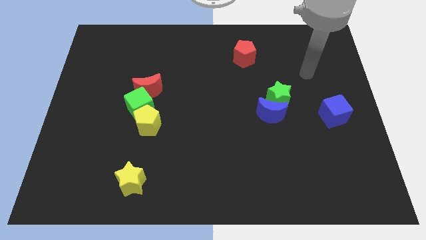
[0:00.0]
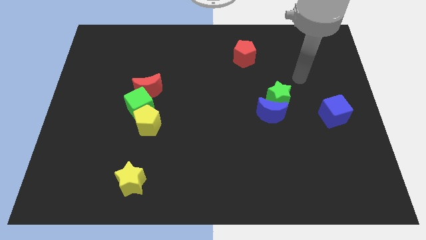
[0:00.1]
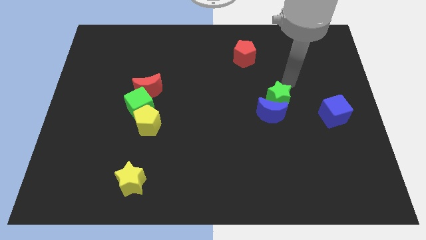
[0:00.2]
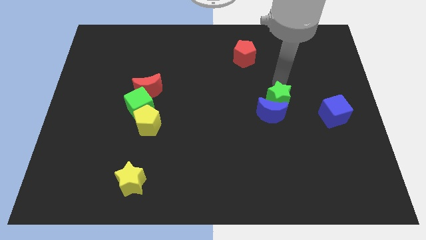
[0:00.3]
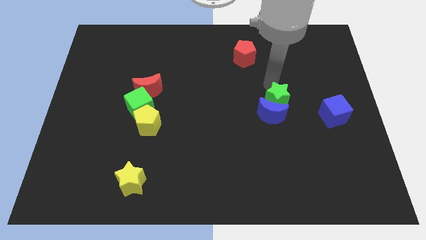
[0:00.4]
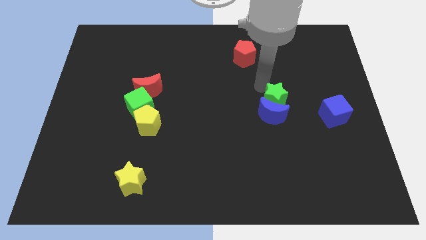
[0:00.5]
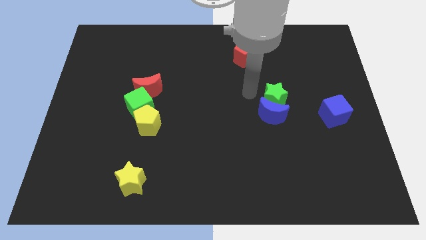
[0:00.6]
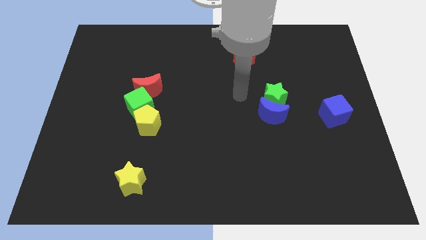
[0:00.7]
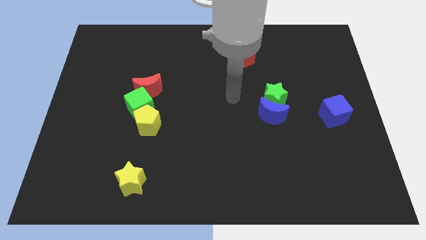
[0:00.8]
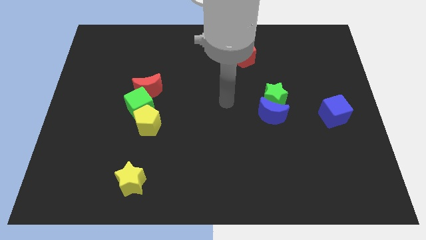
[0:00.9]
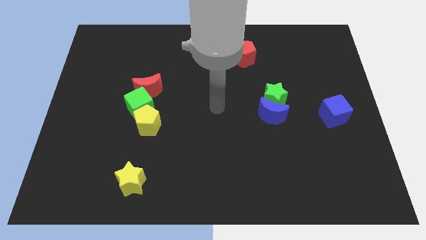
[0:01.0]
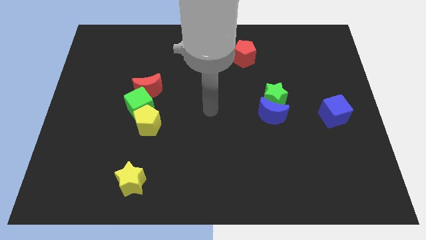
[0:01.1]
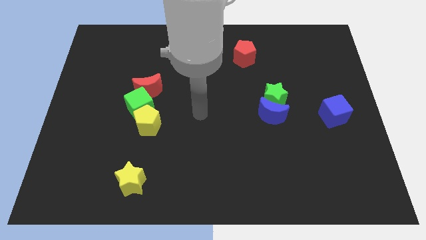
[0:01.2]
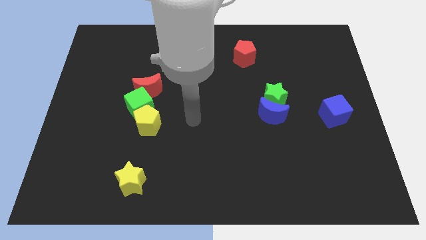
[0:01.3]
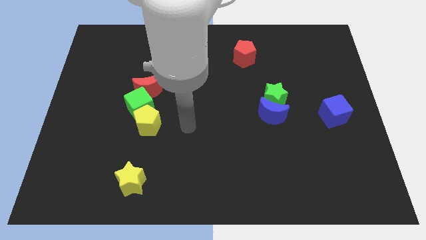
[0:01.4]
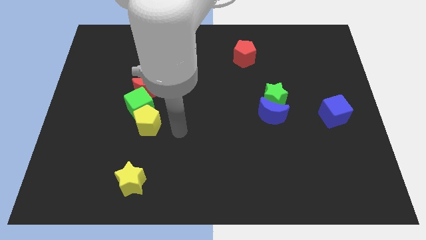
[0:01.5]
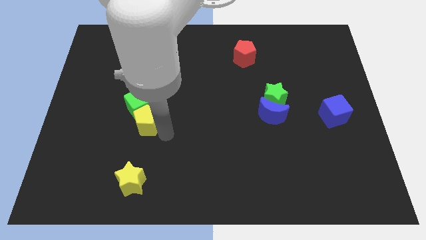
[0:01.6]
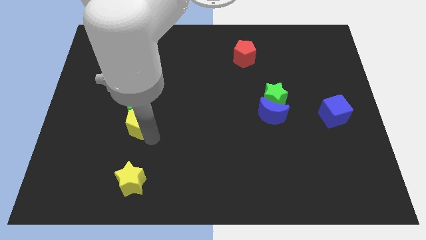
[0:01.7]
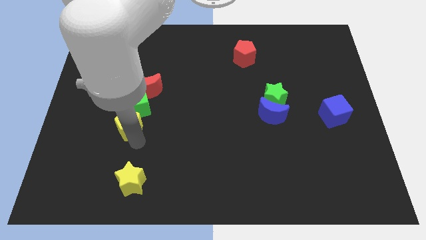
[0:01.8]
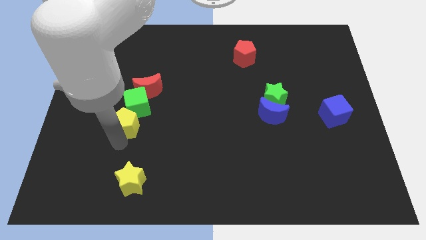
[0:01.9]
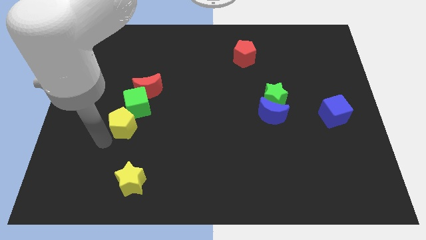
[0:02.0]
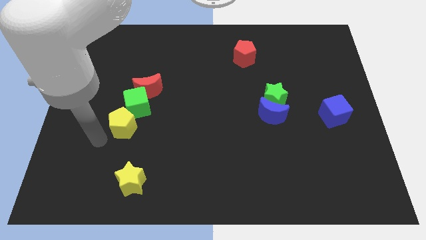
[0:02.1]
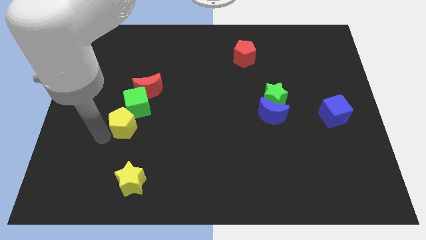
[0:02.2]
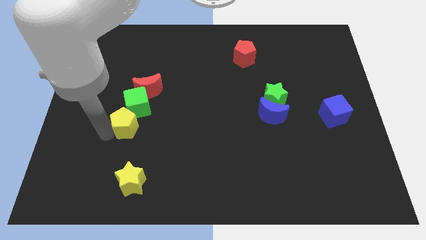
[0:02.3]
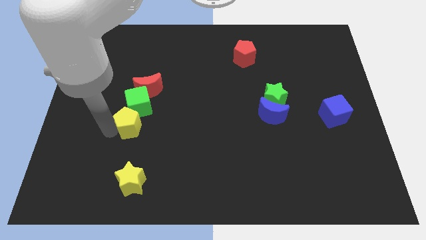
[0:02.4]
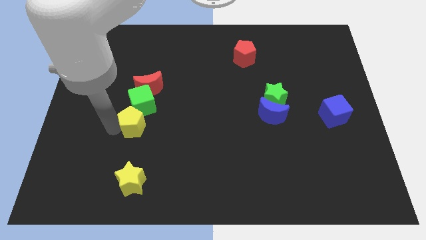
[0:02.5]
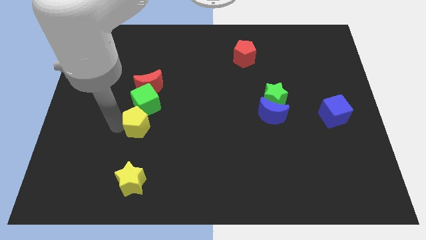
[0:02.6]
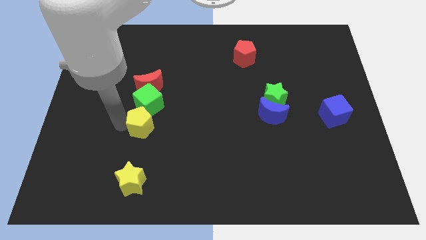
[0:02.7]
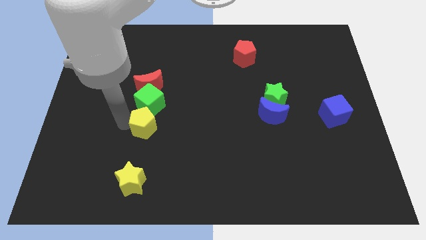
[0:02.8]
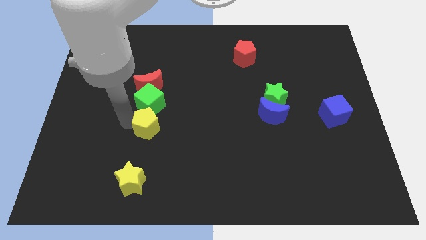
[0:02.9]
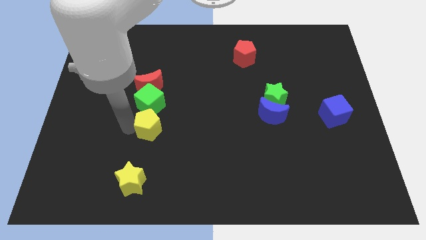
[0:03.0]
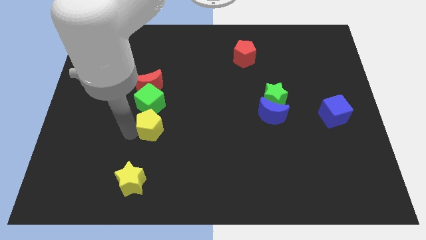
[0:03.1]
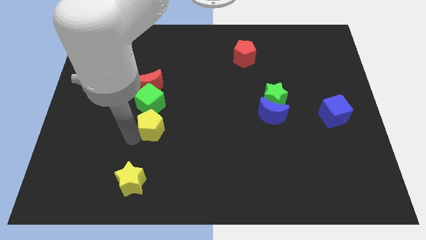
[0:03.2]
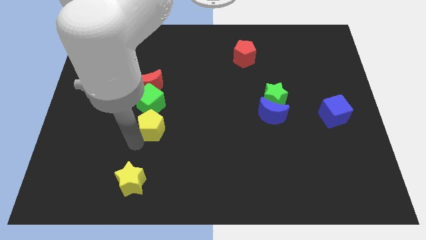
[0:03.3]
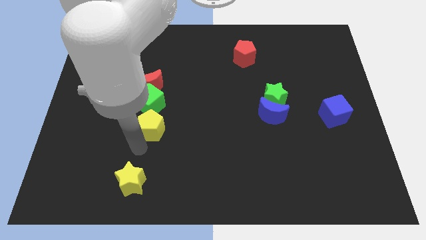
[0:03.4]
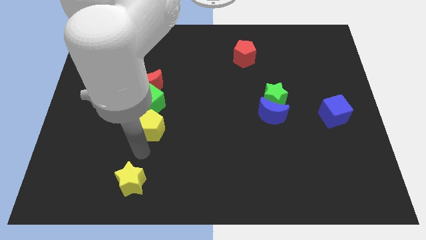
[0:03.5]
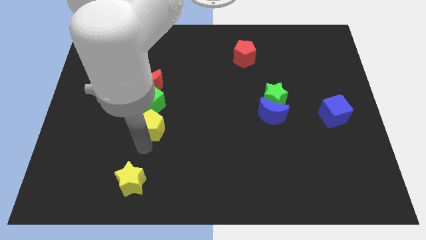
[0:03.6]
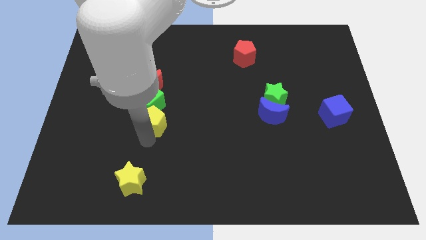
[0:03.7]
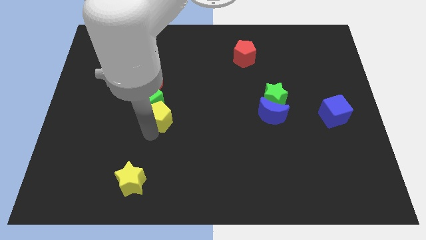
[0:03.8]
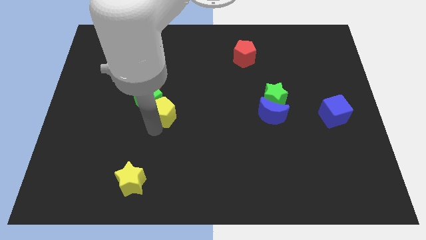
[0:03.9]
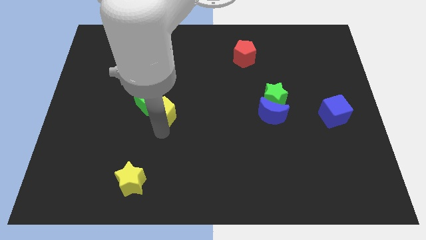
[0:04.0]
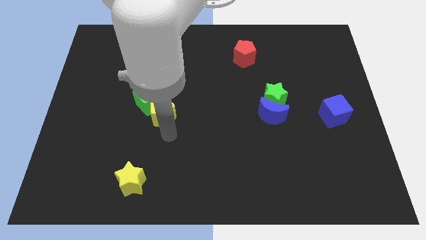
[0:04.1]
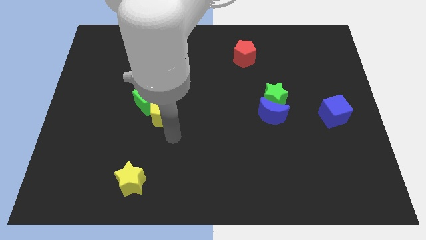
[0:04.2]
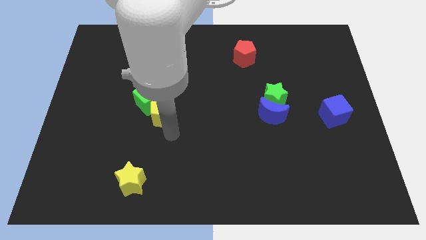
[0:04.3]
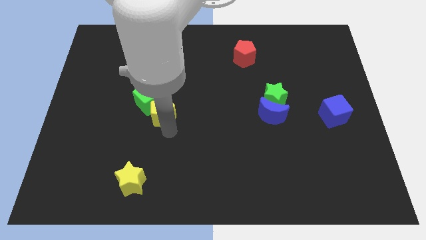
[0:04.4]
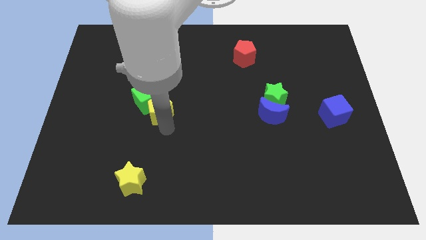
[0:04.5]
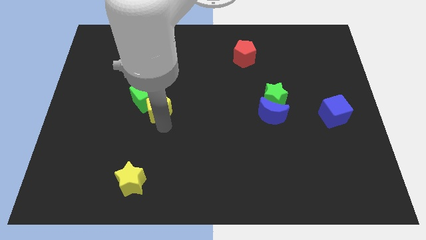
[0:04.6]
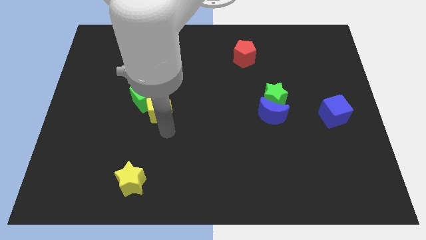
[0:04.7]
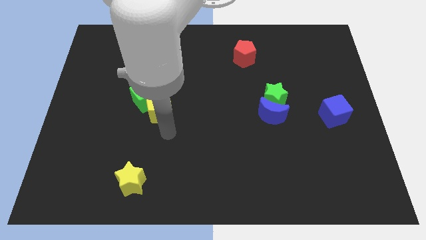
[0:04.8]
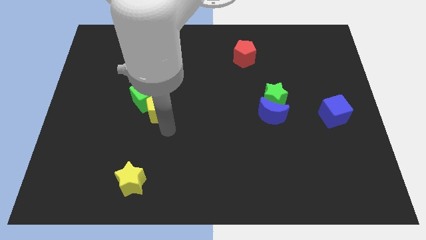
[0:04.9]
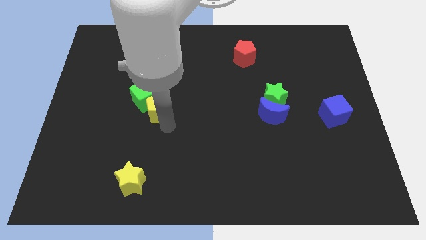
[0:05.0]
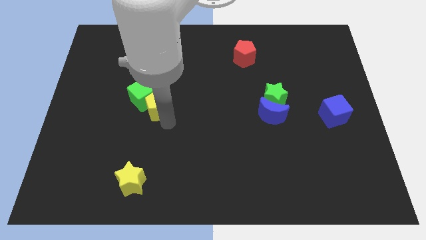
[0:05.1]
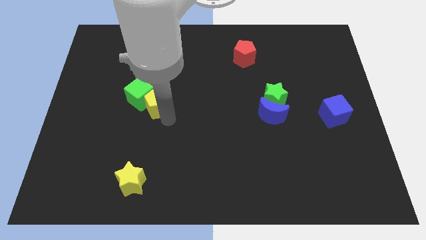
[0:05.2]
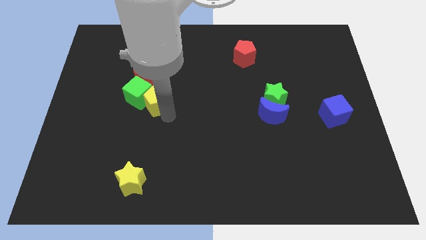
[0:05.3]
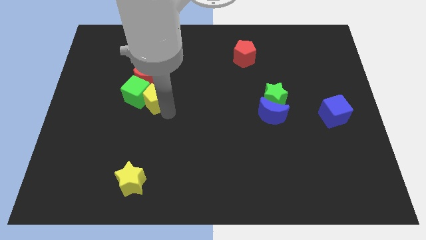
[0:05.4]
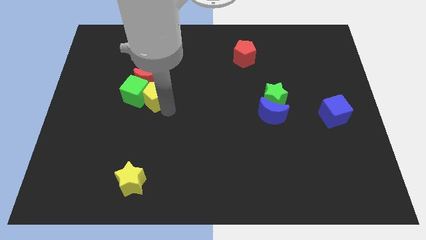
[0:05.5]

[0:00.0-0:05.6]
slide the yellow pentagon next to the red moon

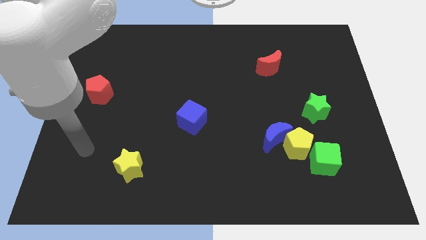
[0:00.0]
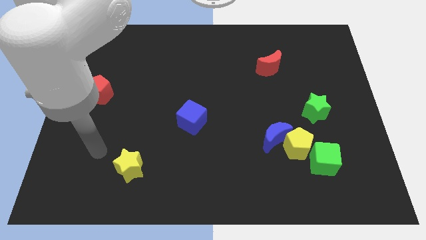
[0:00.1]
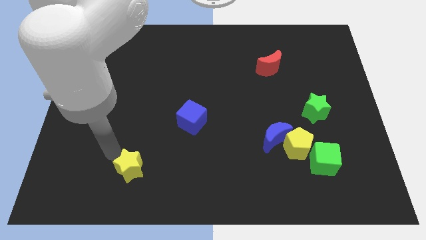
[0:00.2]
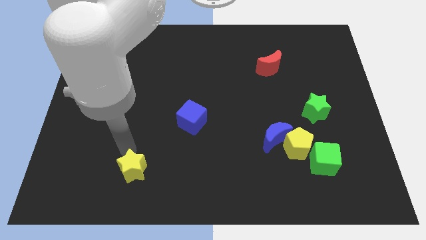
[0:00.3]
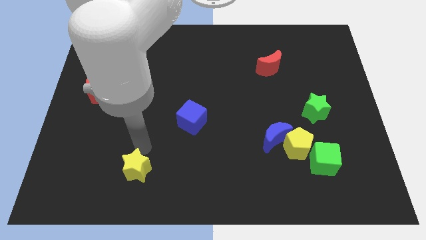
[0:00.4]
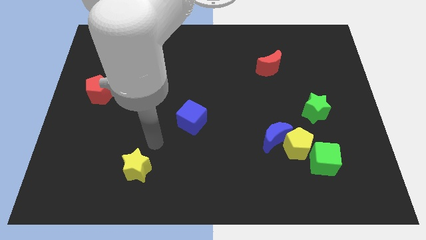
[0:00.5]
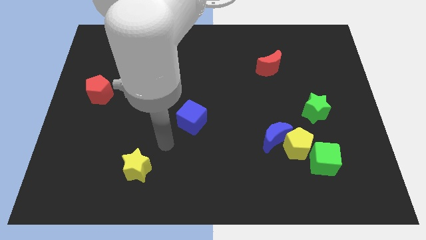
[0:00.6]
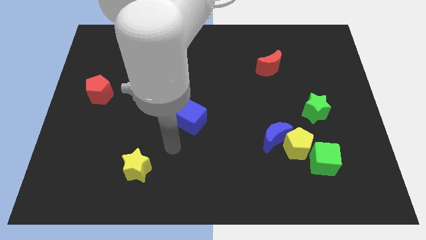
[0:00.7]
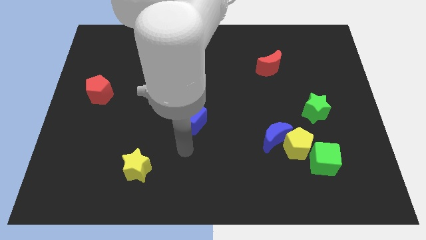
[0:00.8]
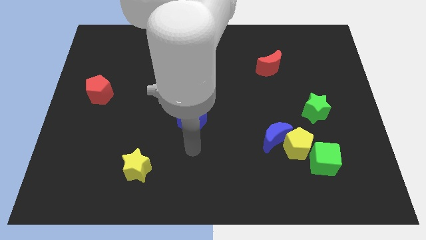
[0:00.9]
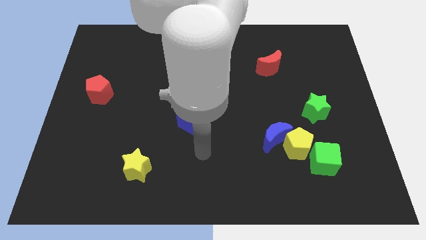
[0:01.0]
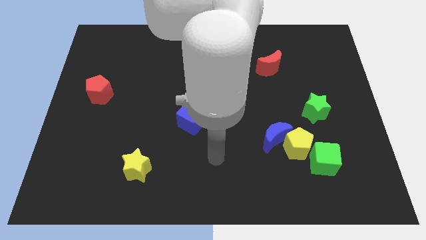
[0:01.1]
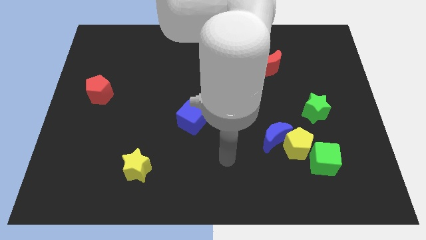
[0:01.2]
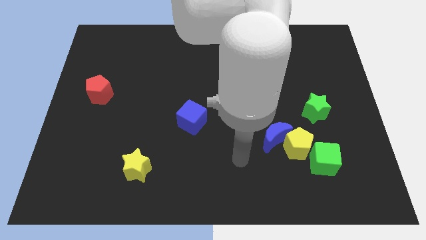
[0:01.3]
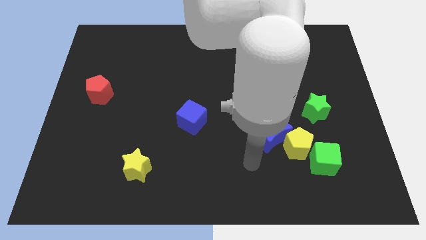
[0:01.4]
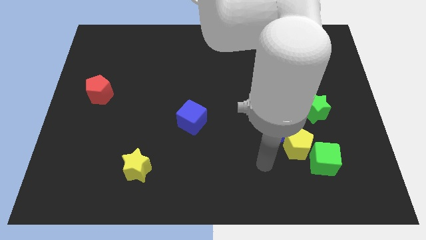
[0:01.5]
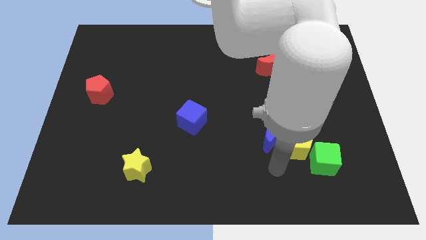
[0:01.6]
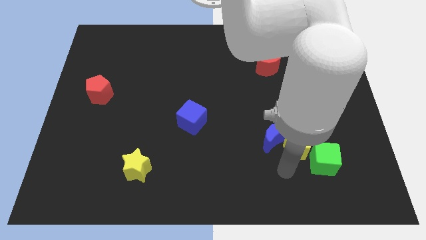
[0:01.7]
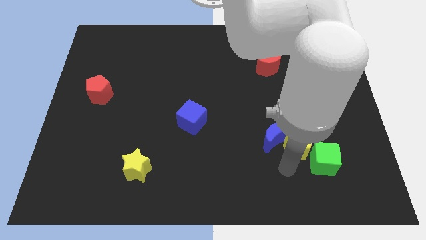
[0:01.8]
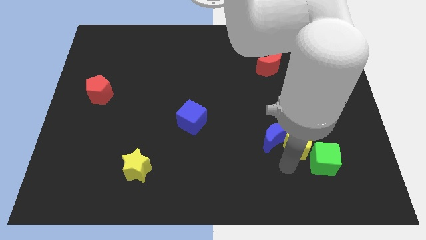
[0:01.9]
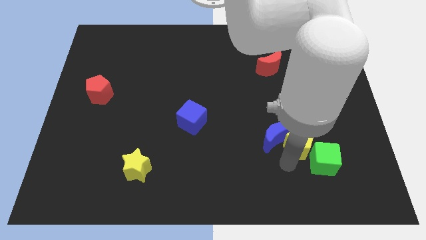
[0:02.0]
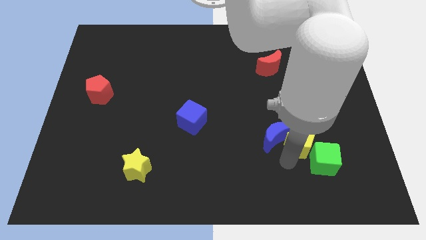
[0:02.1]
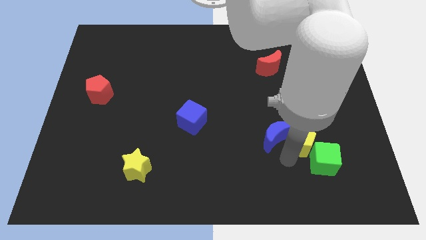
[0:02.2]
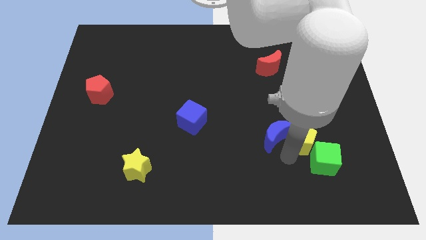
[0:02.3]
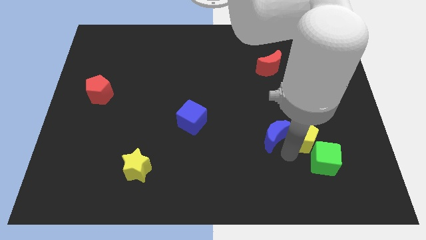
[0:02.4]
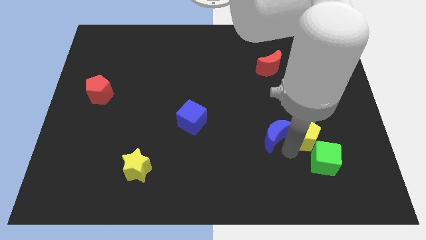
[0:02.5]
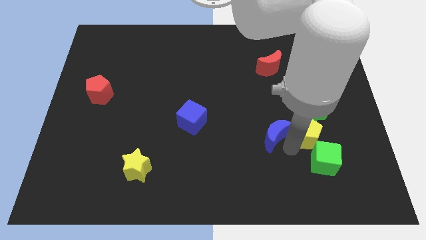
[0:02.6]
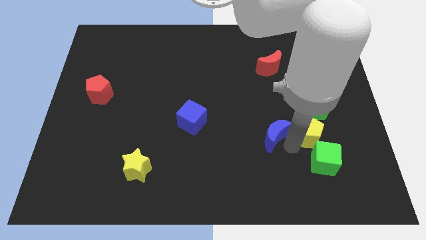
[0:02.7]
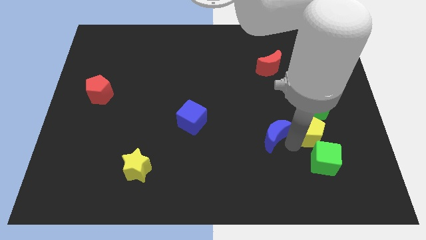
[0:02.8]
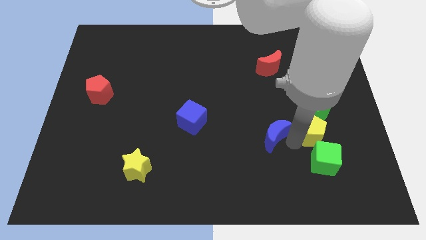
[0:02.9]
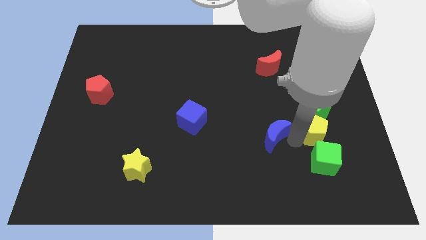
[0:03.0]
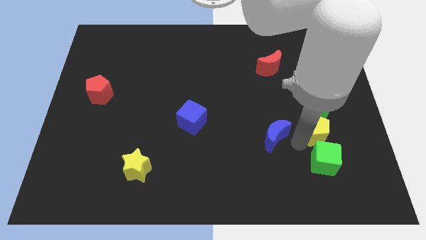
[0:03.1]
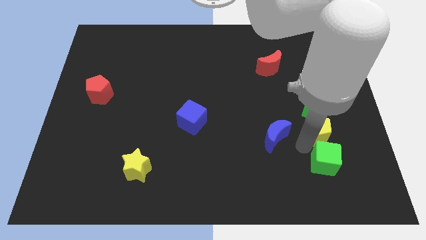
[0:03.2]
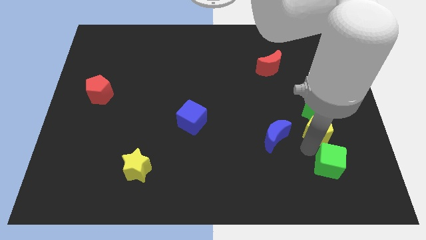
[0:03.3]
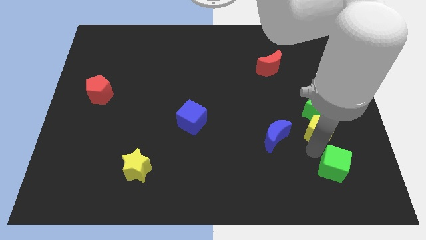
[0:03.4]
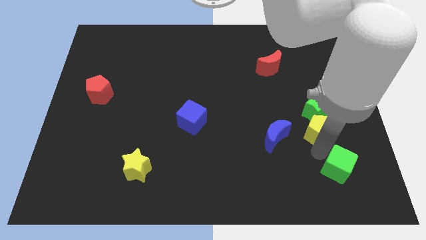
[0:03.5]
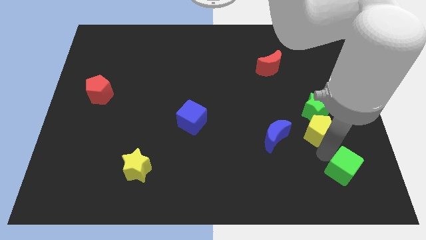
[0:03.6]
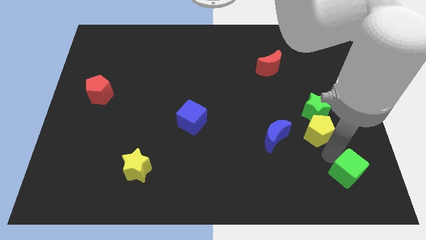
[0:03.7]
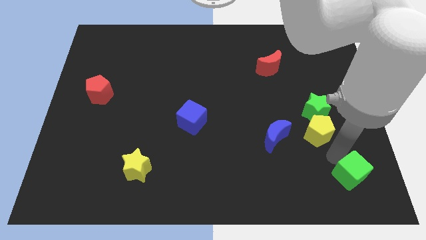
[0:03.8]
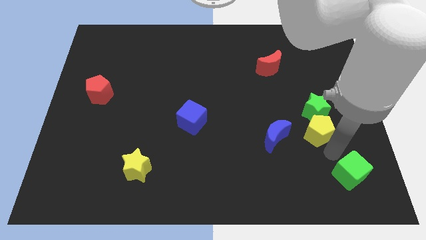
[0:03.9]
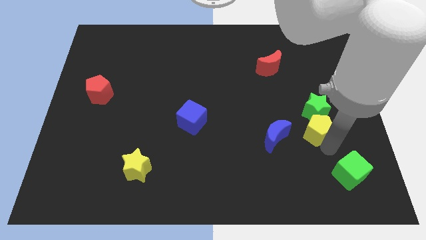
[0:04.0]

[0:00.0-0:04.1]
put the yellow pentagon to the green star
